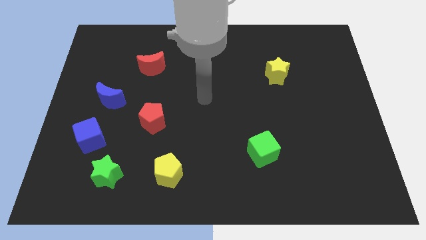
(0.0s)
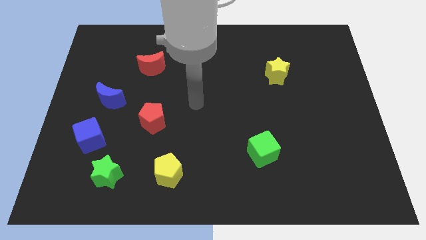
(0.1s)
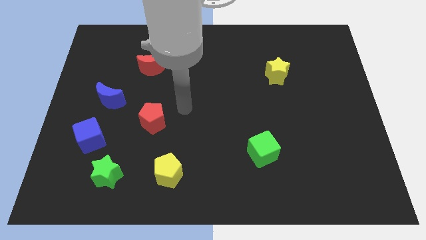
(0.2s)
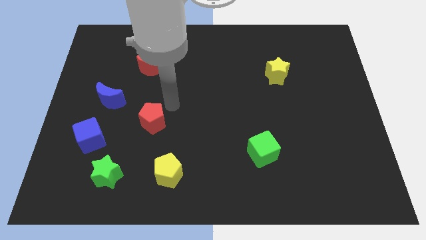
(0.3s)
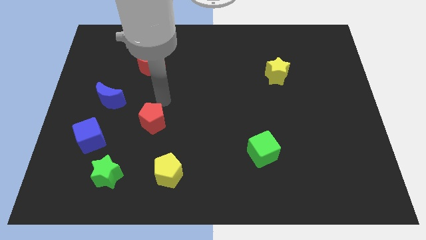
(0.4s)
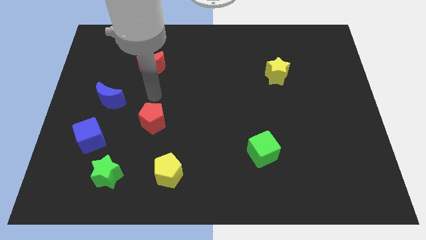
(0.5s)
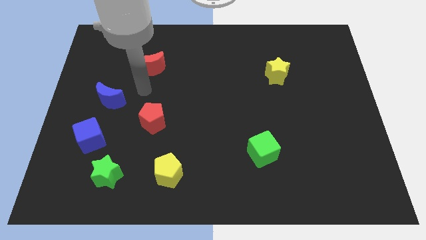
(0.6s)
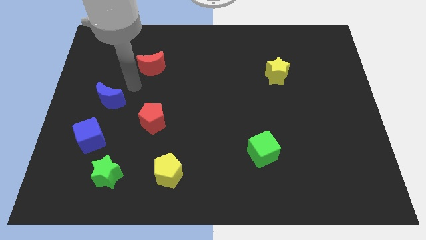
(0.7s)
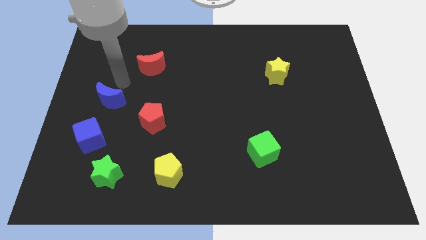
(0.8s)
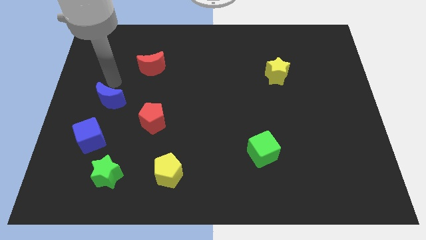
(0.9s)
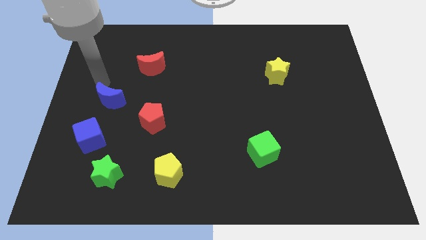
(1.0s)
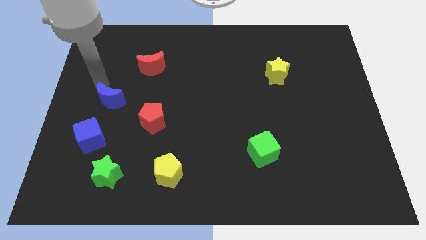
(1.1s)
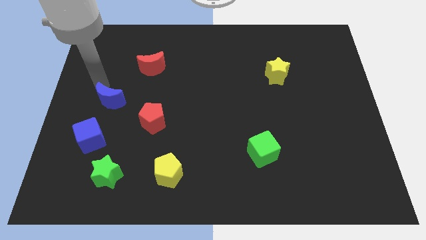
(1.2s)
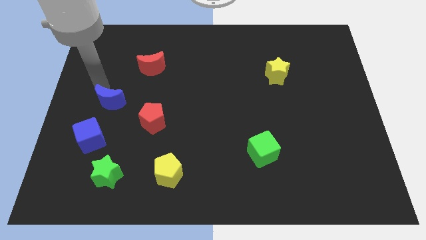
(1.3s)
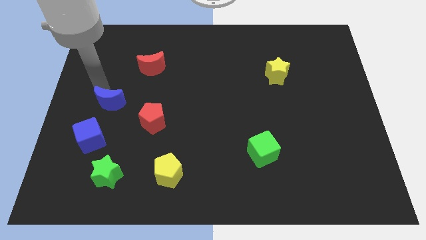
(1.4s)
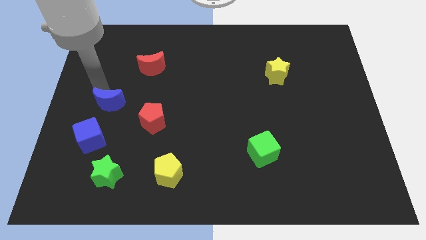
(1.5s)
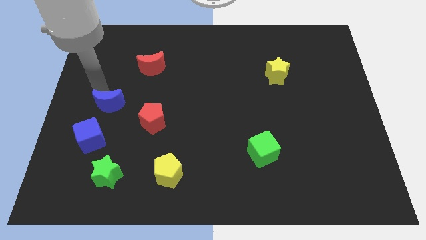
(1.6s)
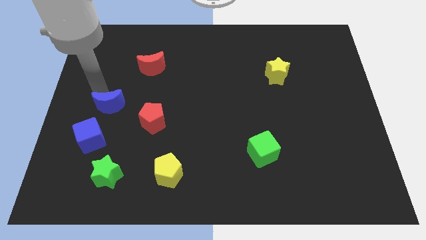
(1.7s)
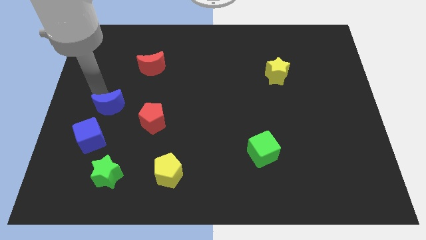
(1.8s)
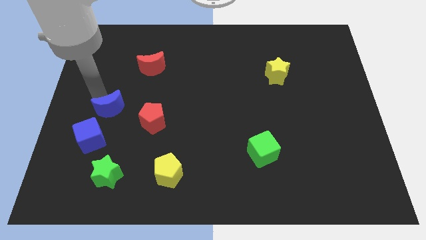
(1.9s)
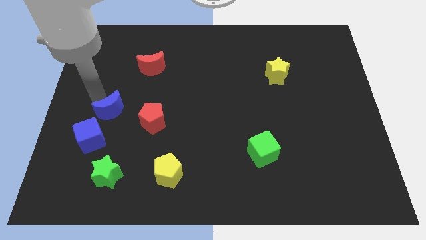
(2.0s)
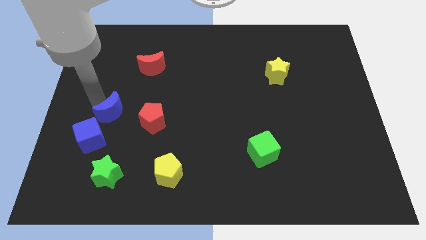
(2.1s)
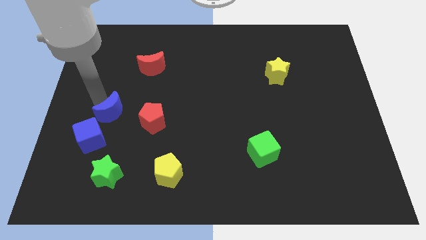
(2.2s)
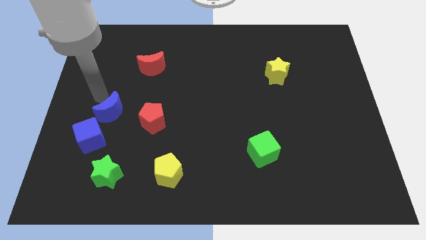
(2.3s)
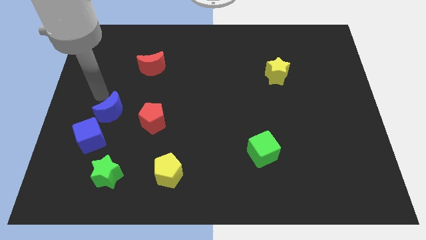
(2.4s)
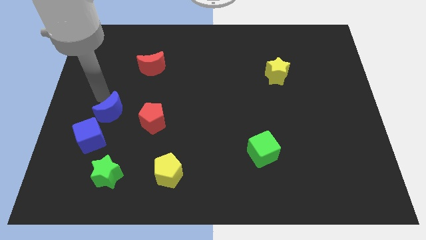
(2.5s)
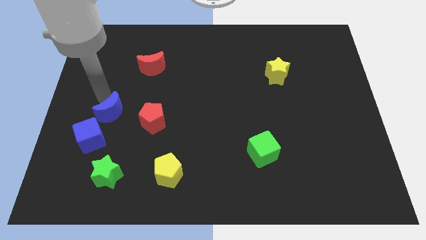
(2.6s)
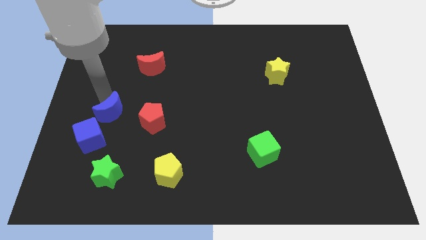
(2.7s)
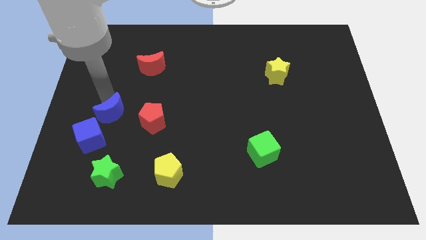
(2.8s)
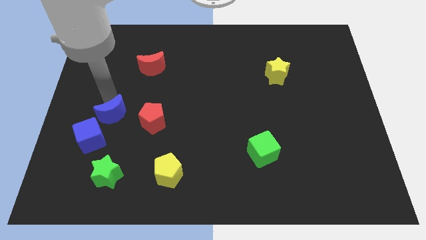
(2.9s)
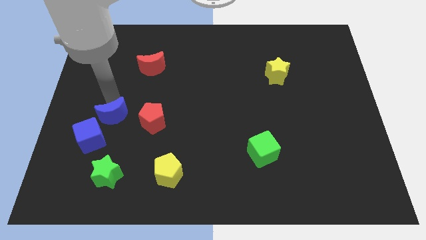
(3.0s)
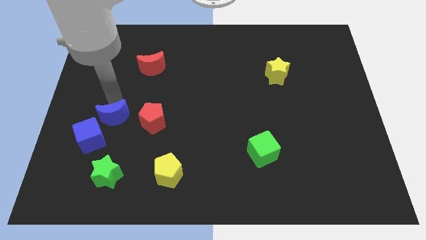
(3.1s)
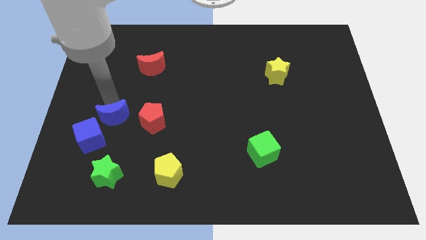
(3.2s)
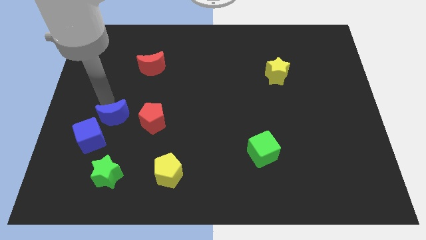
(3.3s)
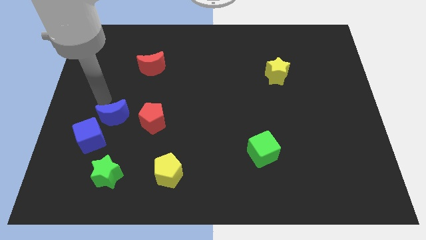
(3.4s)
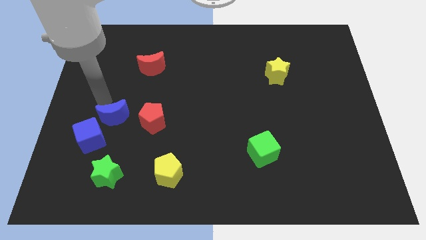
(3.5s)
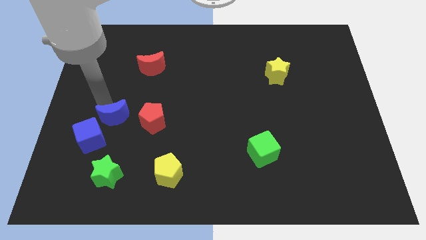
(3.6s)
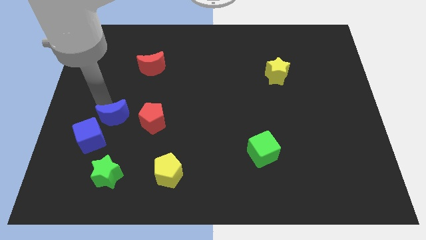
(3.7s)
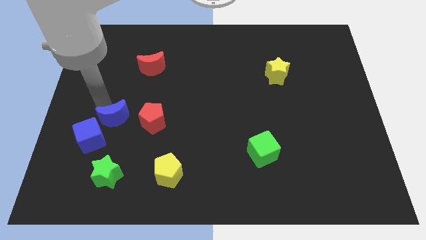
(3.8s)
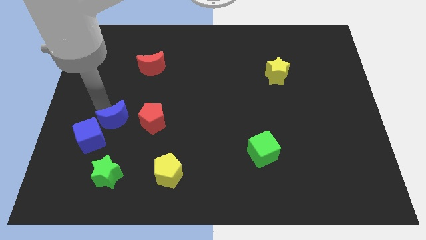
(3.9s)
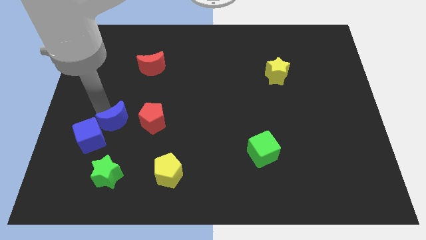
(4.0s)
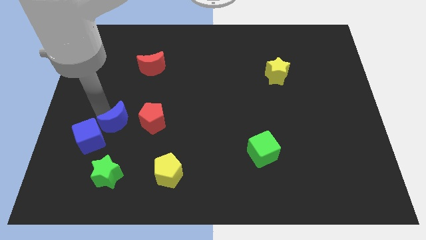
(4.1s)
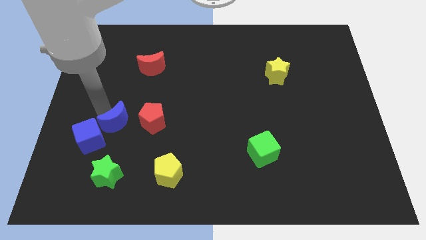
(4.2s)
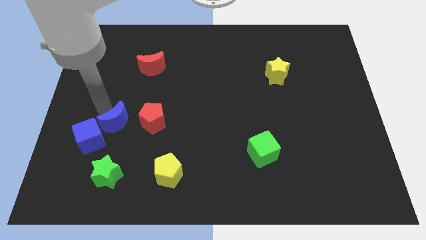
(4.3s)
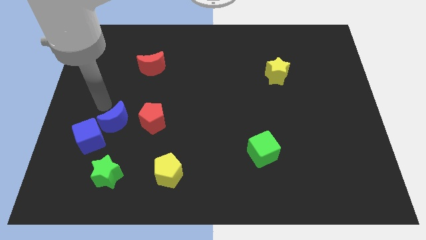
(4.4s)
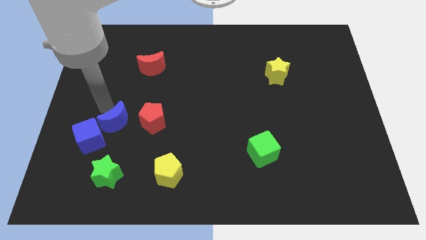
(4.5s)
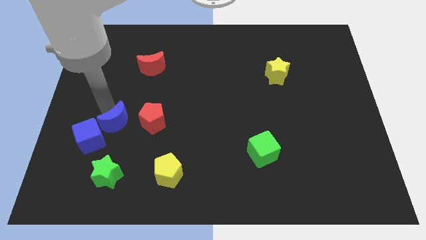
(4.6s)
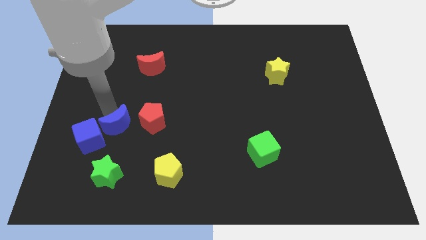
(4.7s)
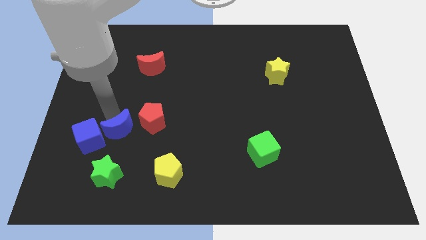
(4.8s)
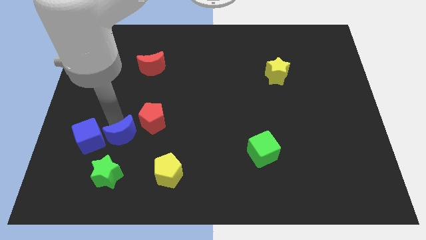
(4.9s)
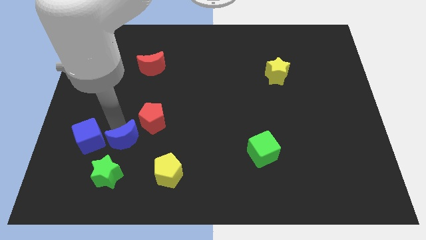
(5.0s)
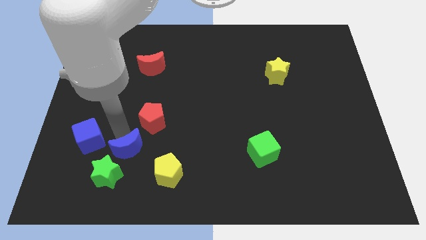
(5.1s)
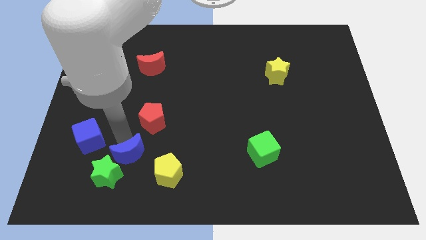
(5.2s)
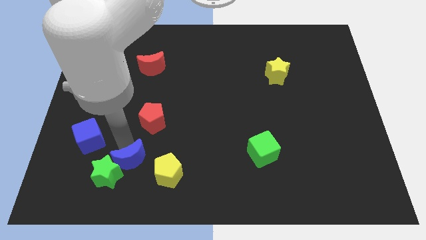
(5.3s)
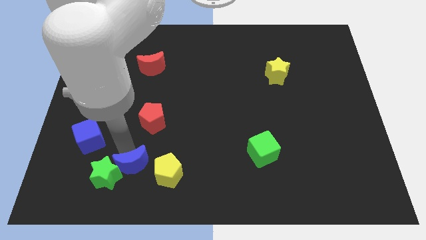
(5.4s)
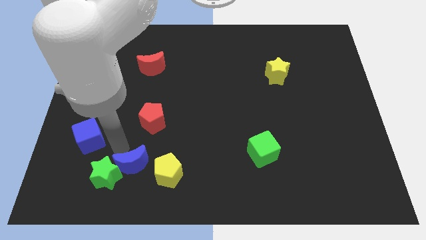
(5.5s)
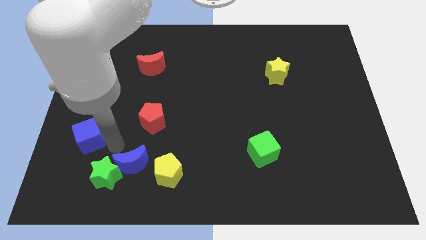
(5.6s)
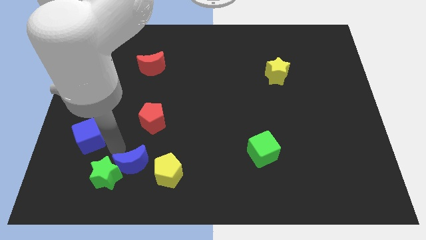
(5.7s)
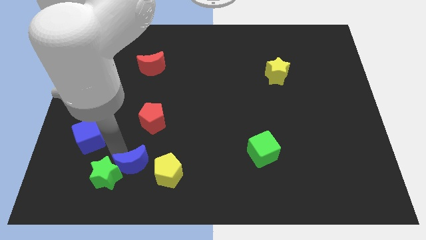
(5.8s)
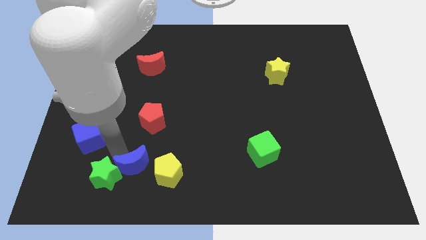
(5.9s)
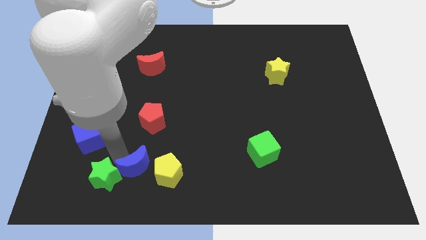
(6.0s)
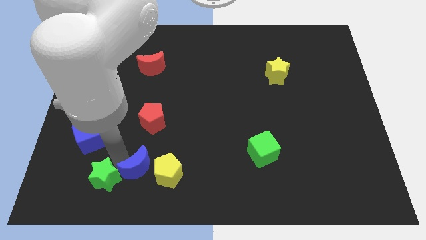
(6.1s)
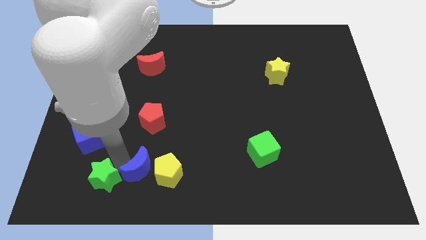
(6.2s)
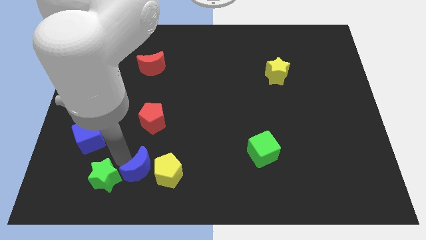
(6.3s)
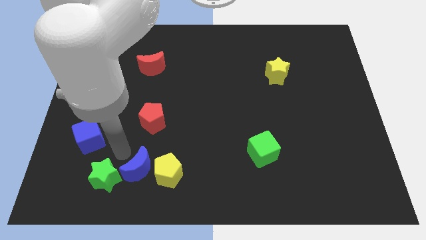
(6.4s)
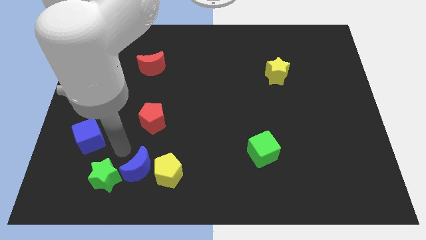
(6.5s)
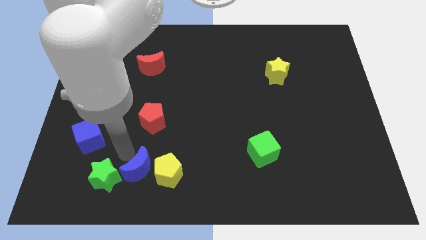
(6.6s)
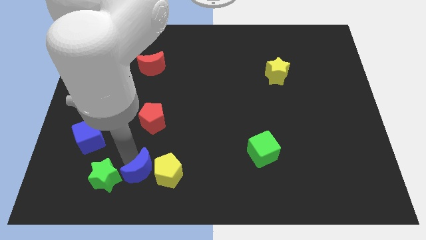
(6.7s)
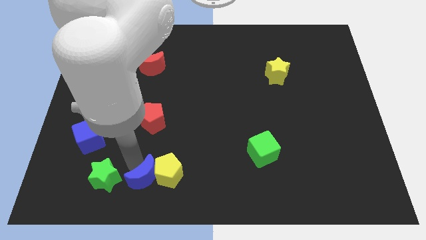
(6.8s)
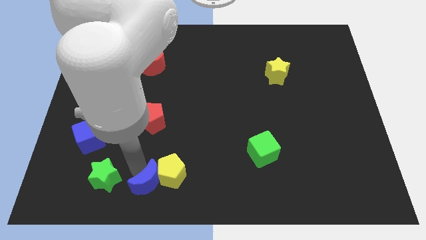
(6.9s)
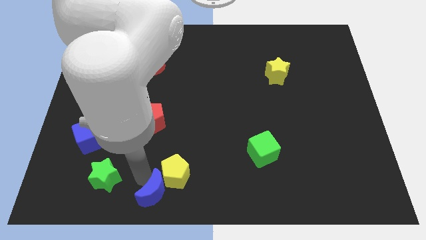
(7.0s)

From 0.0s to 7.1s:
slide the blue moon to the bottom side
